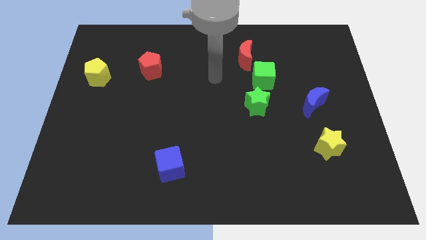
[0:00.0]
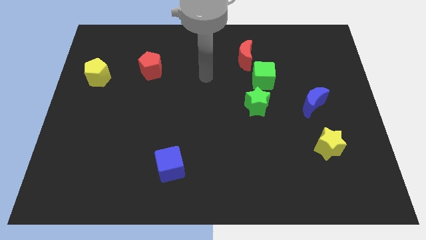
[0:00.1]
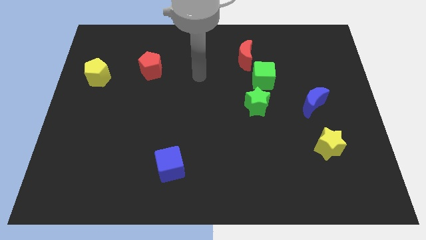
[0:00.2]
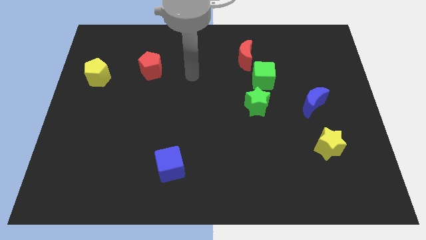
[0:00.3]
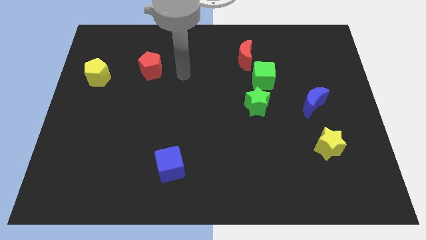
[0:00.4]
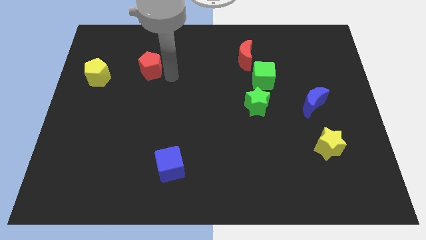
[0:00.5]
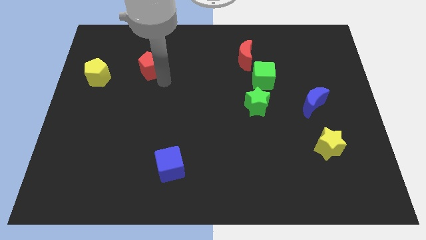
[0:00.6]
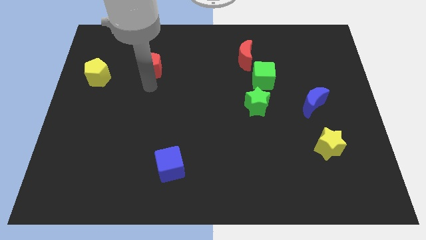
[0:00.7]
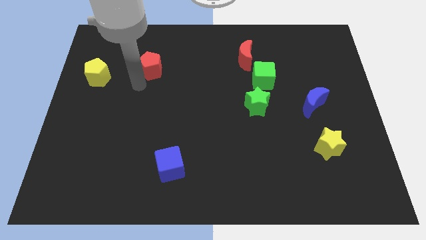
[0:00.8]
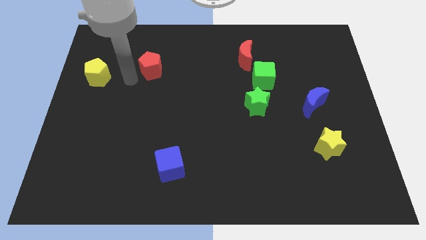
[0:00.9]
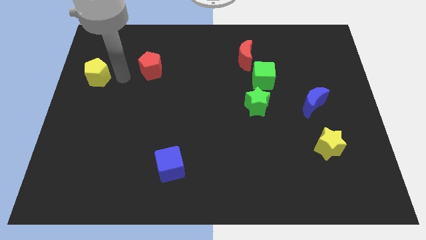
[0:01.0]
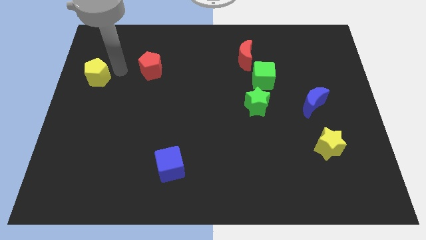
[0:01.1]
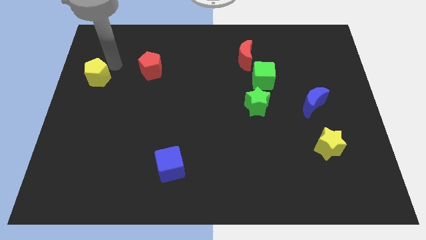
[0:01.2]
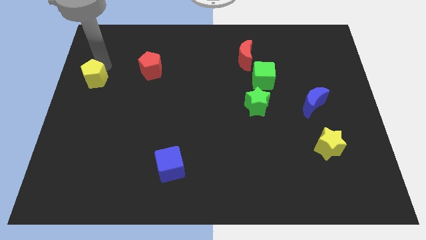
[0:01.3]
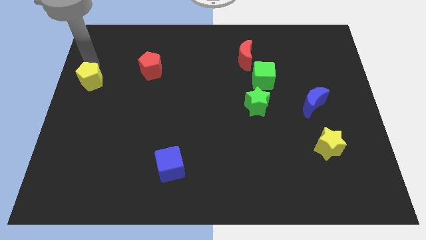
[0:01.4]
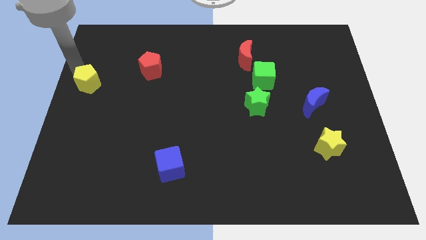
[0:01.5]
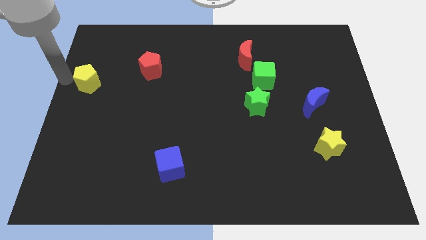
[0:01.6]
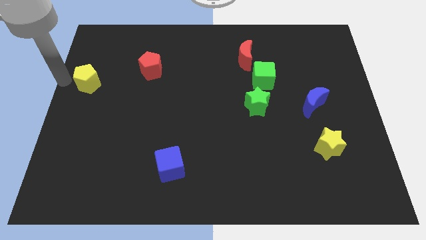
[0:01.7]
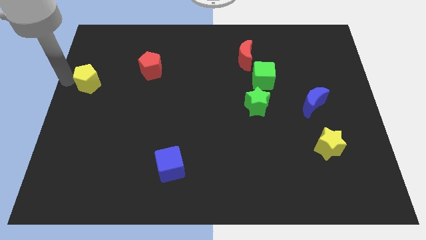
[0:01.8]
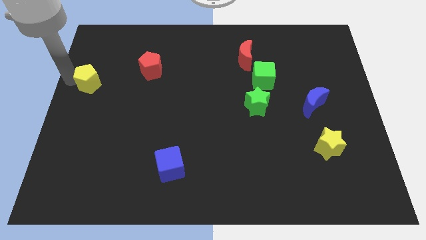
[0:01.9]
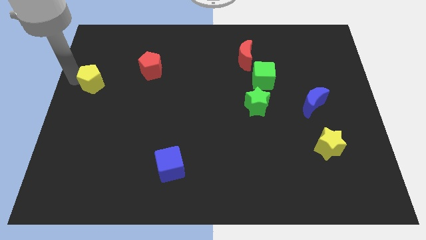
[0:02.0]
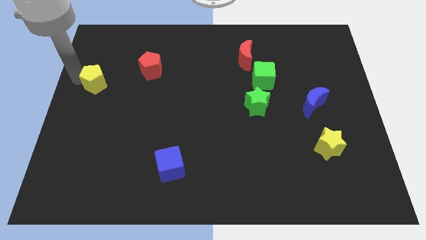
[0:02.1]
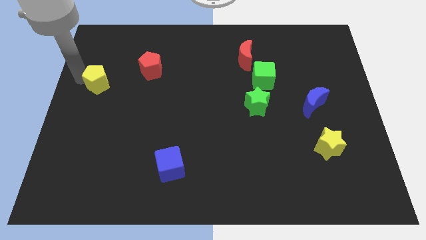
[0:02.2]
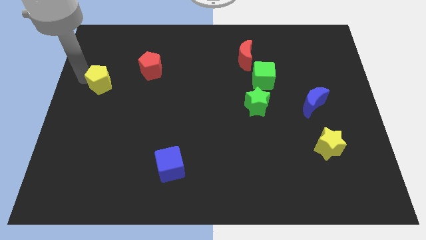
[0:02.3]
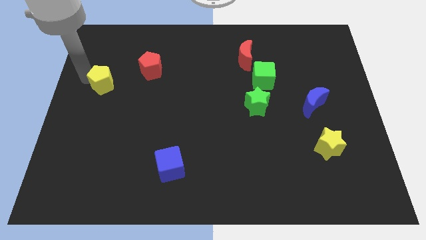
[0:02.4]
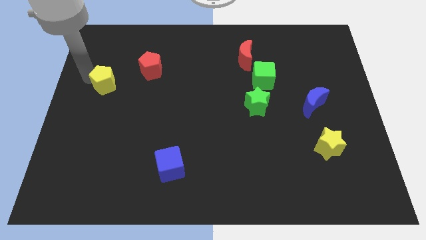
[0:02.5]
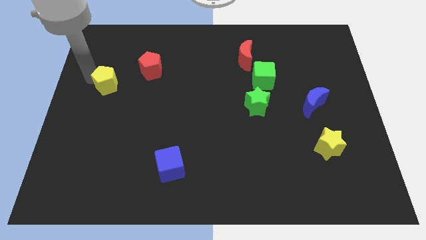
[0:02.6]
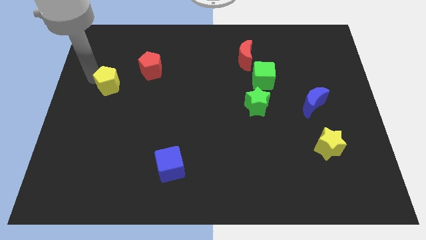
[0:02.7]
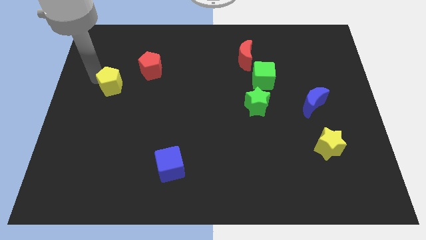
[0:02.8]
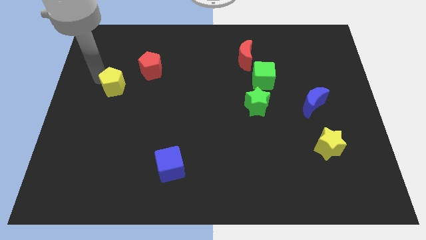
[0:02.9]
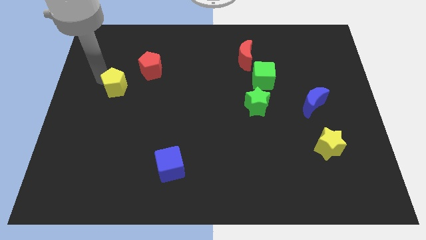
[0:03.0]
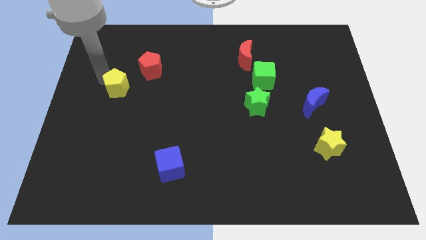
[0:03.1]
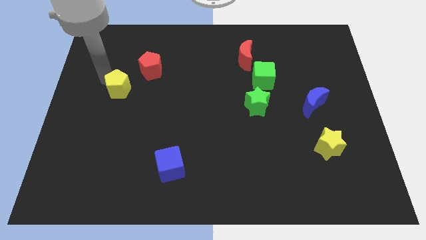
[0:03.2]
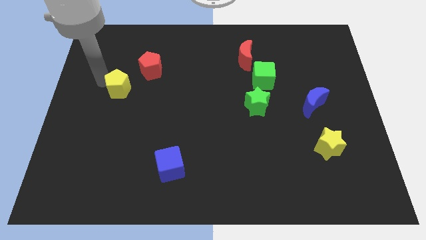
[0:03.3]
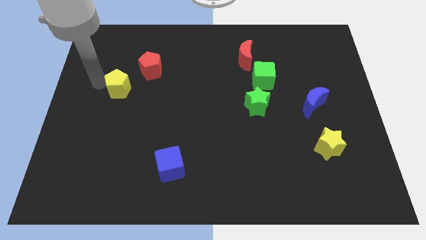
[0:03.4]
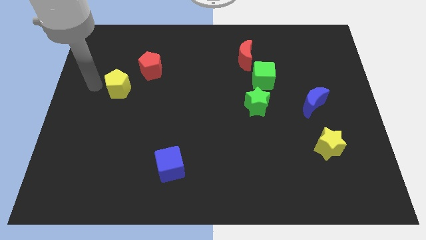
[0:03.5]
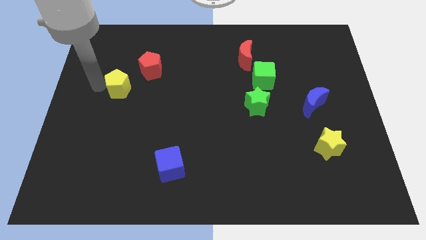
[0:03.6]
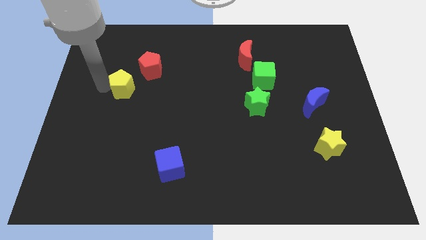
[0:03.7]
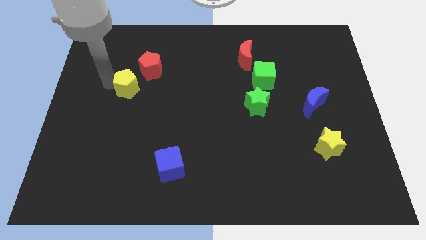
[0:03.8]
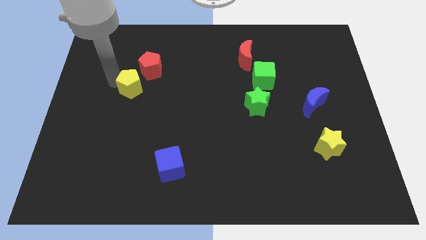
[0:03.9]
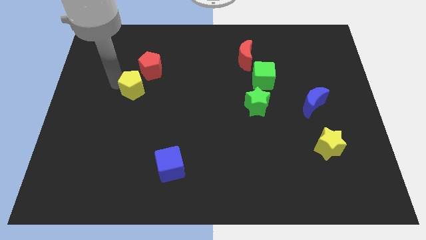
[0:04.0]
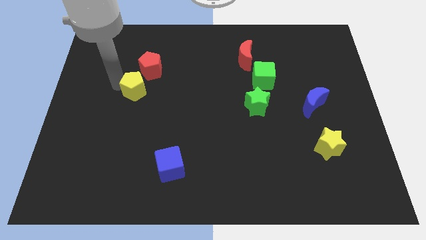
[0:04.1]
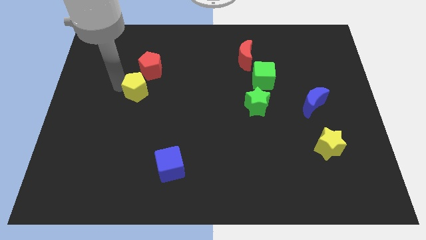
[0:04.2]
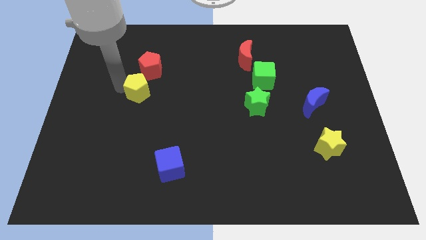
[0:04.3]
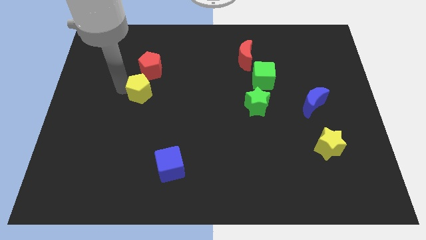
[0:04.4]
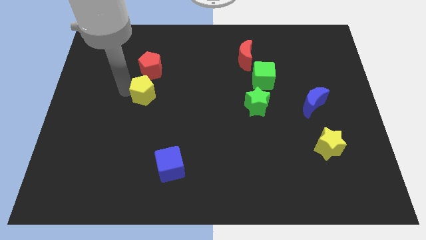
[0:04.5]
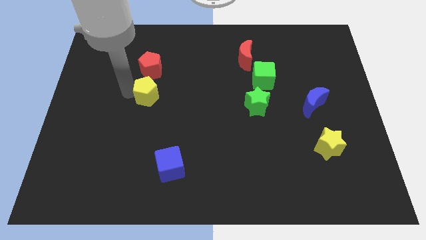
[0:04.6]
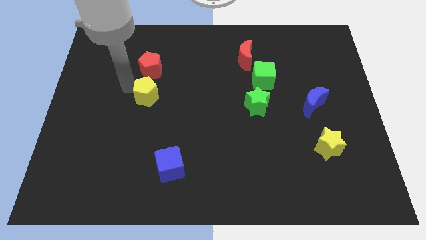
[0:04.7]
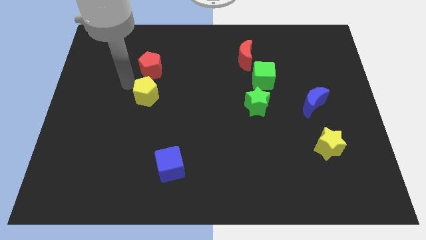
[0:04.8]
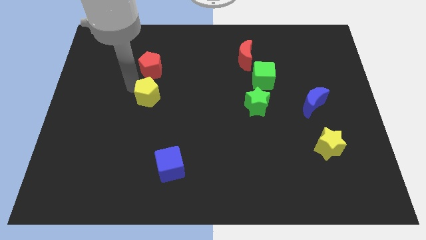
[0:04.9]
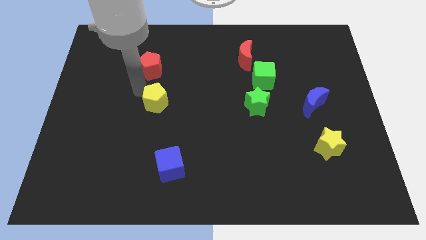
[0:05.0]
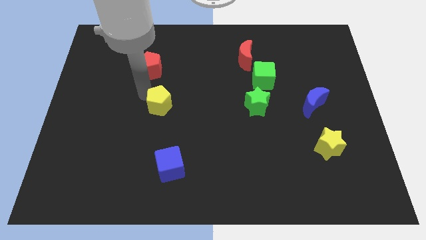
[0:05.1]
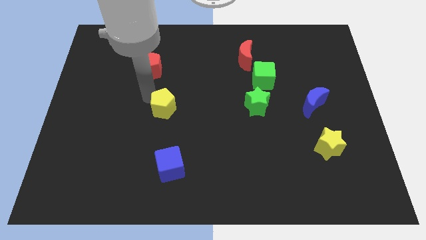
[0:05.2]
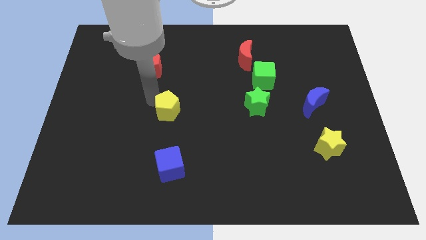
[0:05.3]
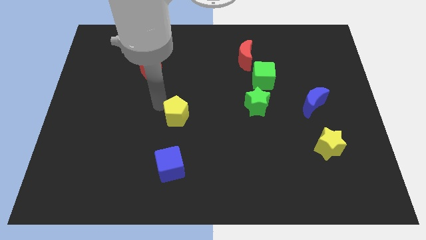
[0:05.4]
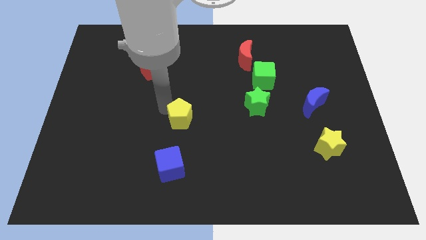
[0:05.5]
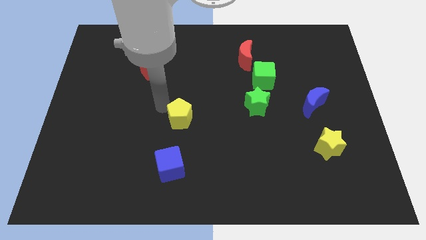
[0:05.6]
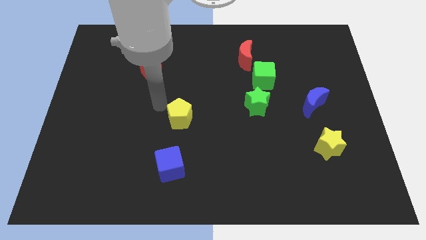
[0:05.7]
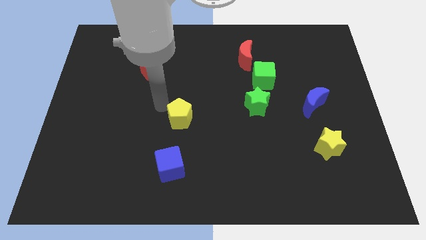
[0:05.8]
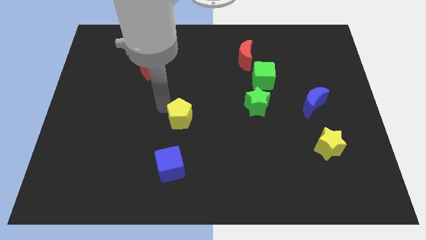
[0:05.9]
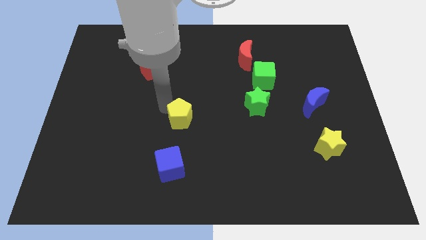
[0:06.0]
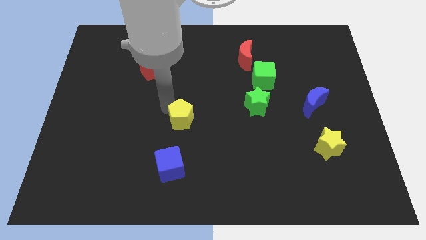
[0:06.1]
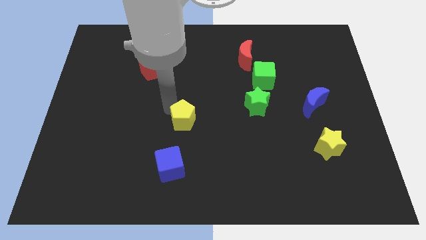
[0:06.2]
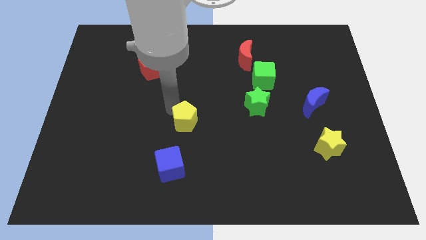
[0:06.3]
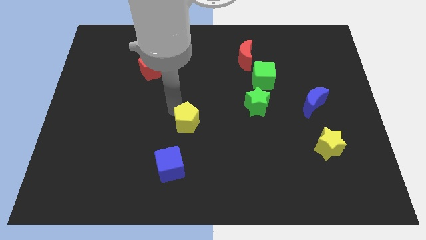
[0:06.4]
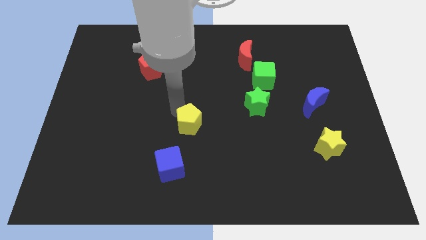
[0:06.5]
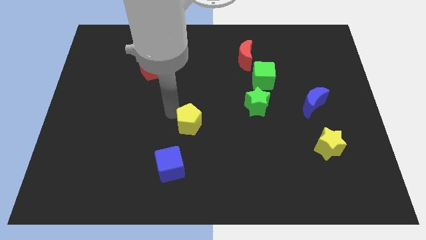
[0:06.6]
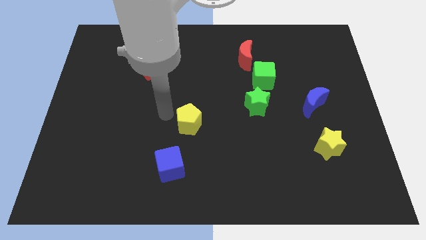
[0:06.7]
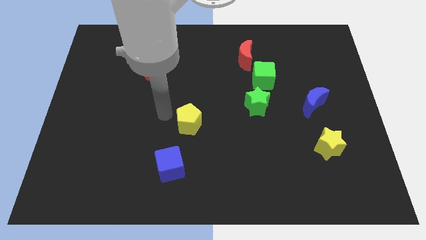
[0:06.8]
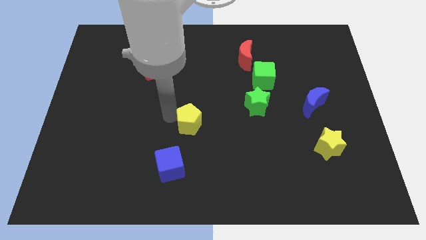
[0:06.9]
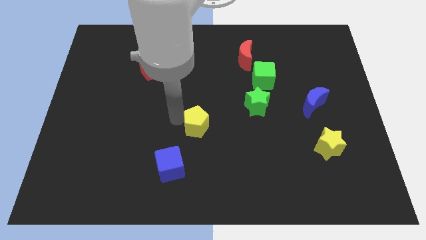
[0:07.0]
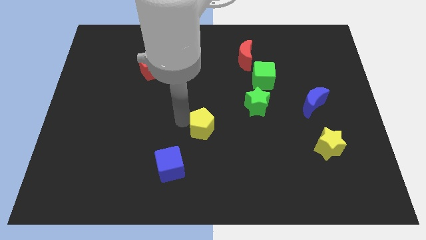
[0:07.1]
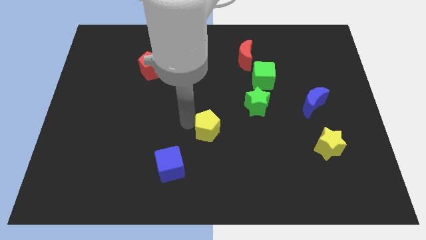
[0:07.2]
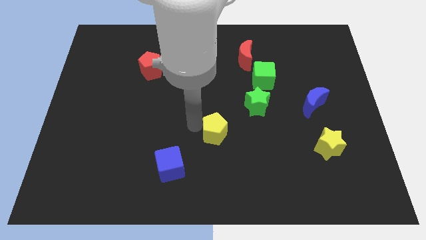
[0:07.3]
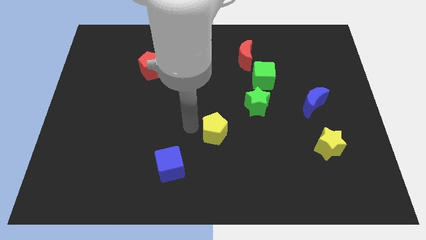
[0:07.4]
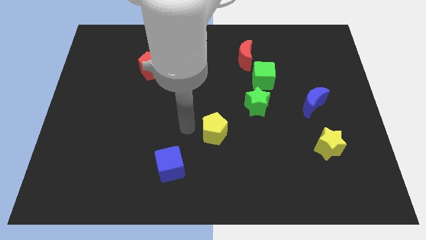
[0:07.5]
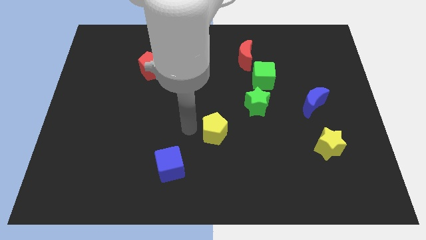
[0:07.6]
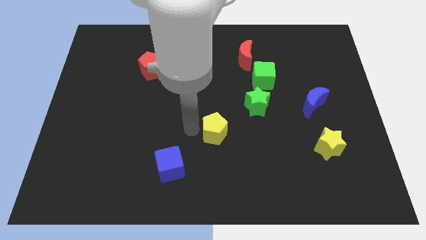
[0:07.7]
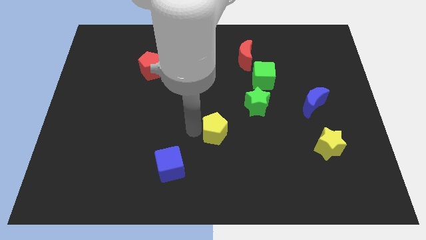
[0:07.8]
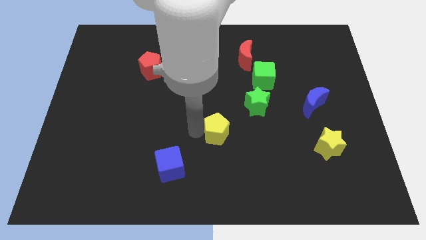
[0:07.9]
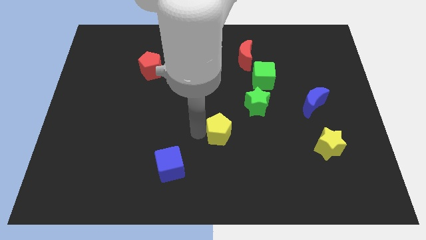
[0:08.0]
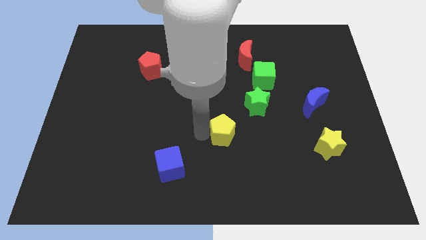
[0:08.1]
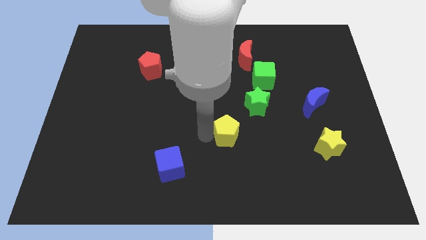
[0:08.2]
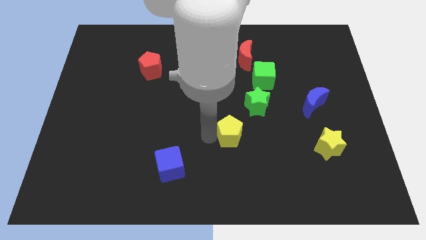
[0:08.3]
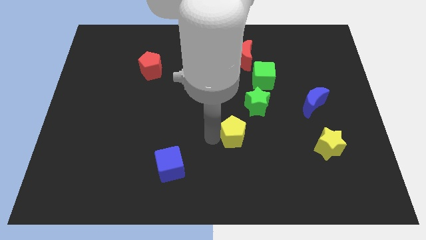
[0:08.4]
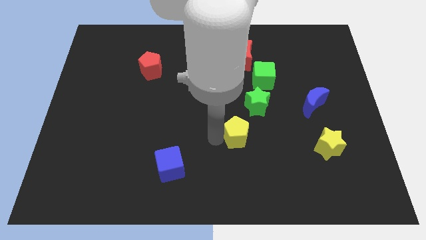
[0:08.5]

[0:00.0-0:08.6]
put the yellow pentagon to the bottom side of the green star
